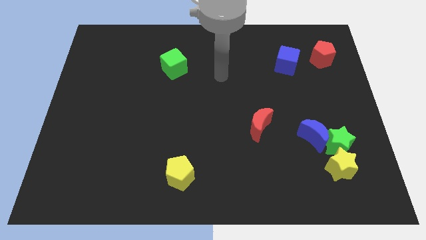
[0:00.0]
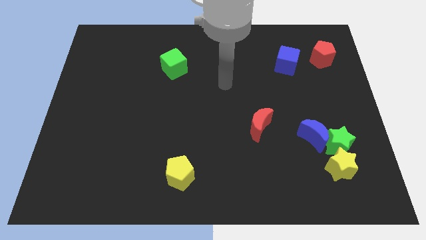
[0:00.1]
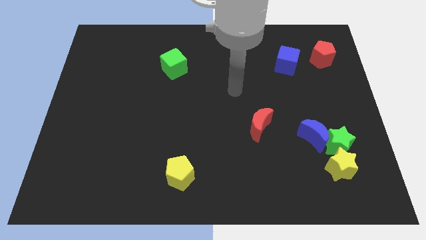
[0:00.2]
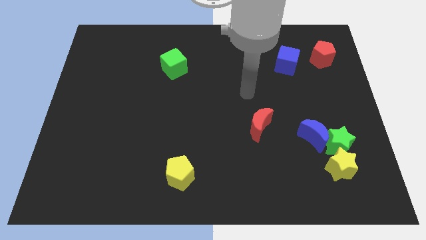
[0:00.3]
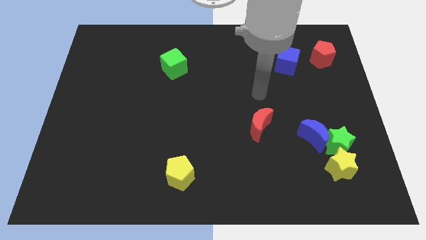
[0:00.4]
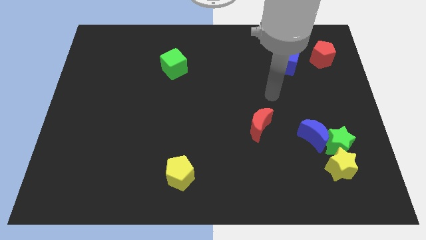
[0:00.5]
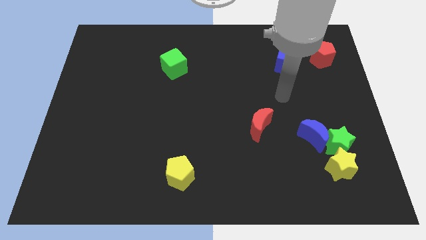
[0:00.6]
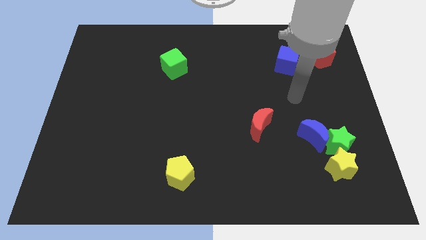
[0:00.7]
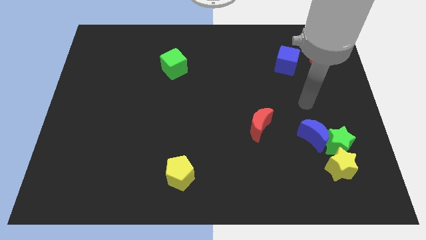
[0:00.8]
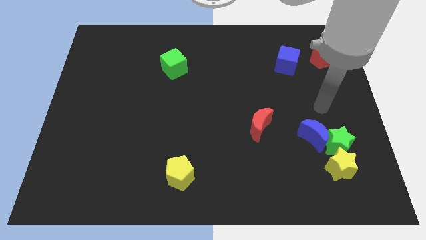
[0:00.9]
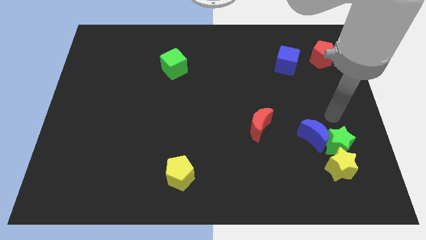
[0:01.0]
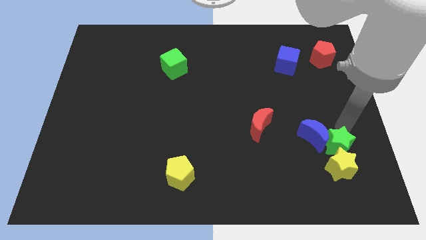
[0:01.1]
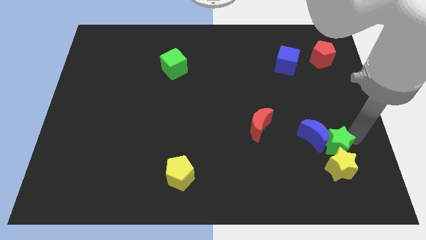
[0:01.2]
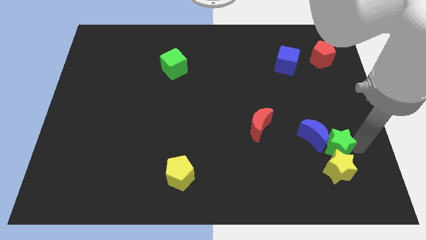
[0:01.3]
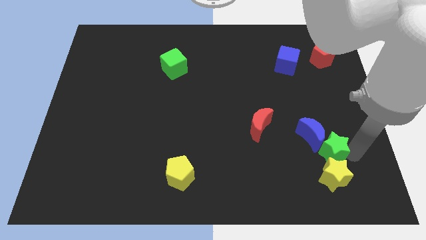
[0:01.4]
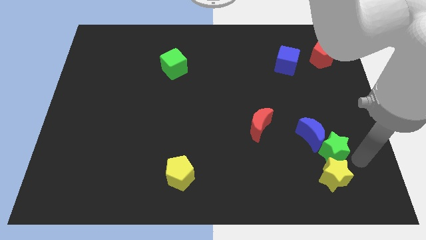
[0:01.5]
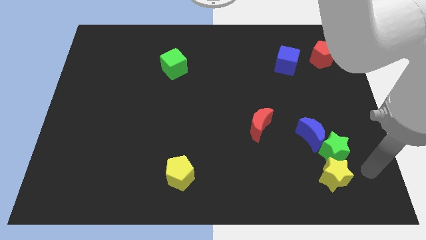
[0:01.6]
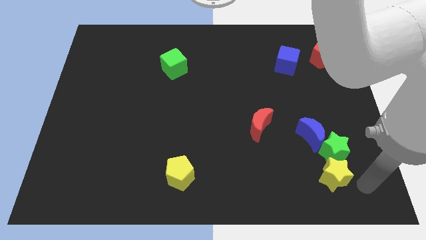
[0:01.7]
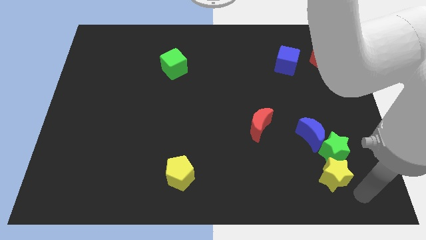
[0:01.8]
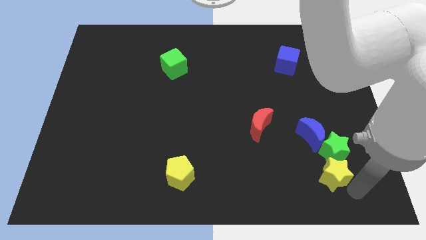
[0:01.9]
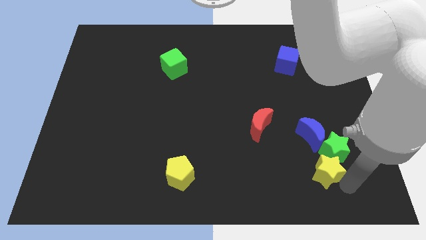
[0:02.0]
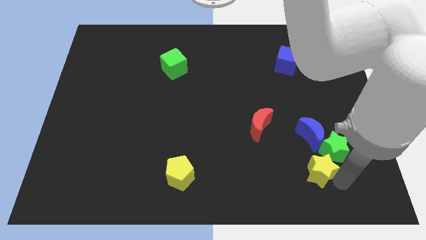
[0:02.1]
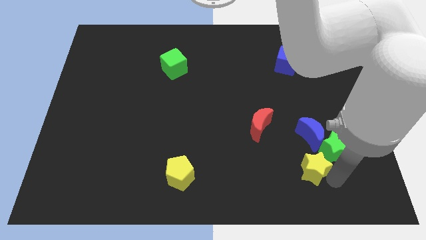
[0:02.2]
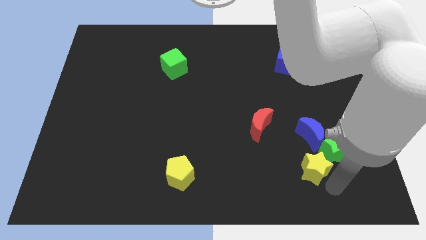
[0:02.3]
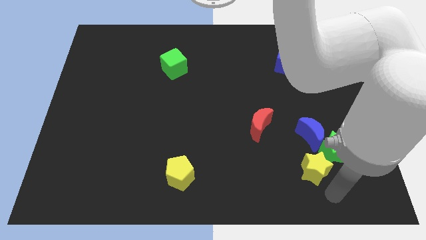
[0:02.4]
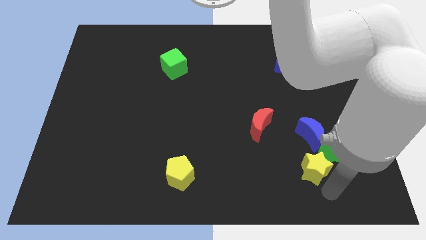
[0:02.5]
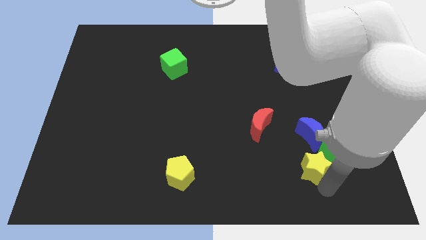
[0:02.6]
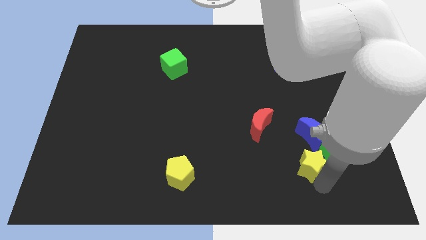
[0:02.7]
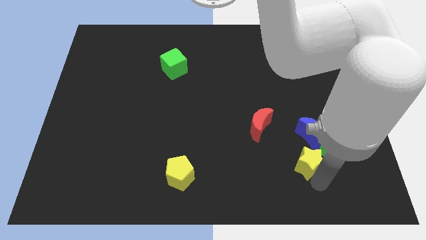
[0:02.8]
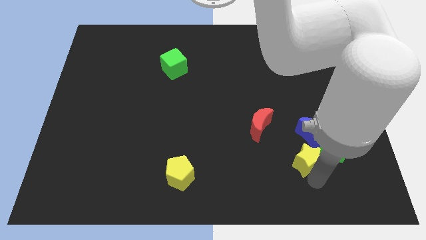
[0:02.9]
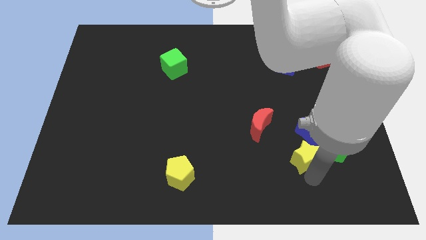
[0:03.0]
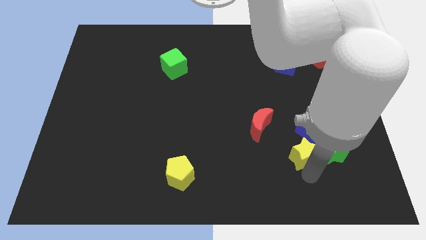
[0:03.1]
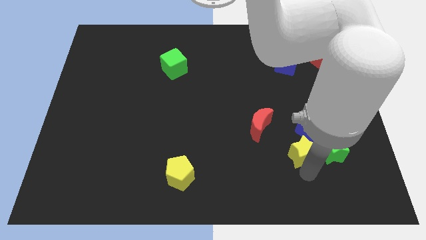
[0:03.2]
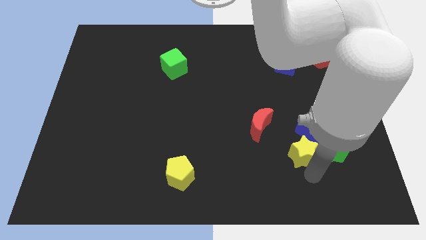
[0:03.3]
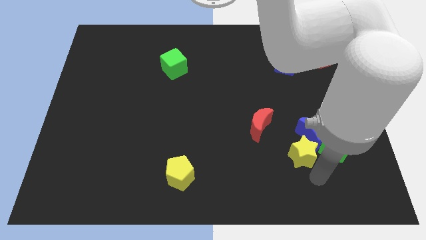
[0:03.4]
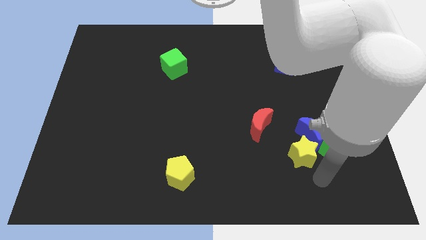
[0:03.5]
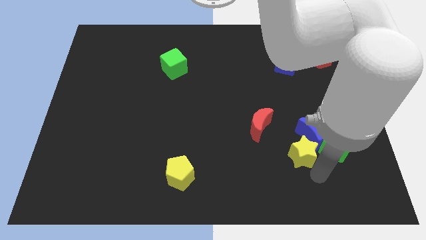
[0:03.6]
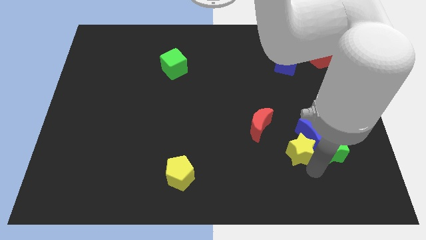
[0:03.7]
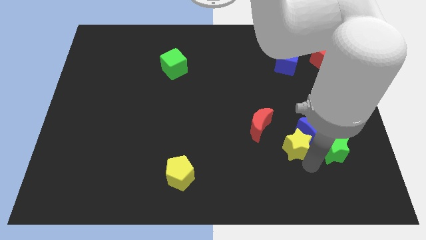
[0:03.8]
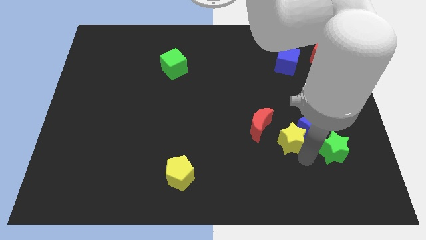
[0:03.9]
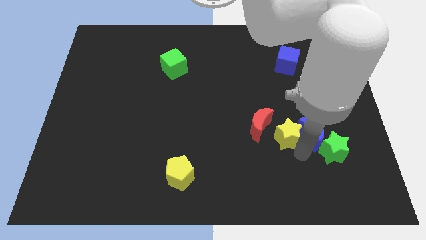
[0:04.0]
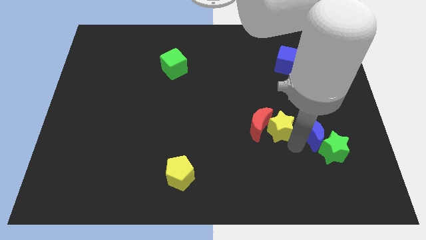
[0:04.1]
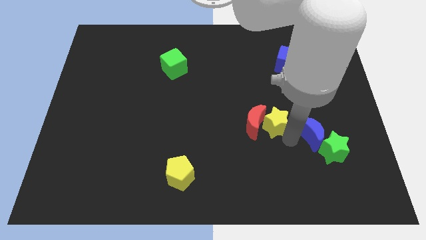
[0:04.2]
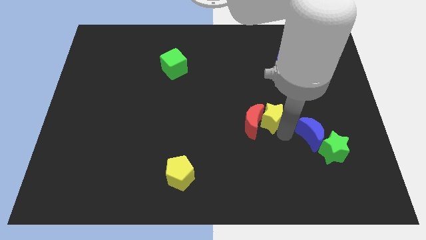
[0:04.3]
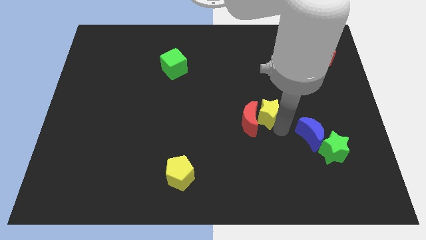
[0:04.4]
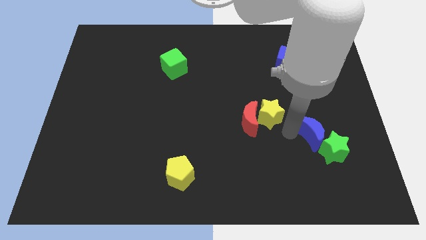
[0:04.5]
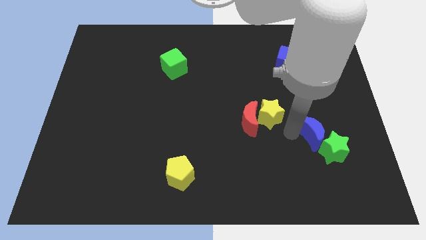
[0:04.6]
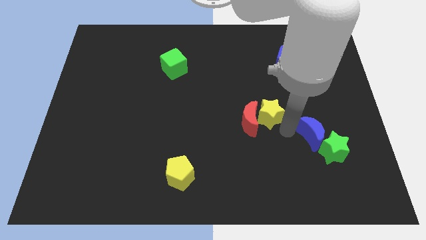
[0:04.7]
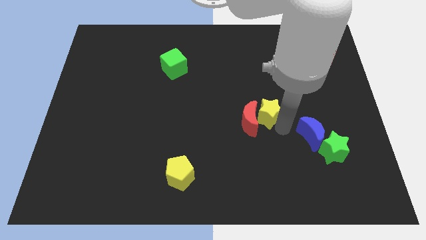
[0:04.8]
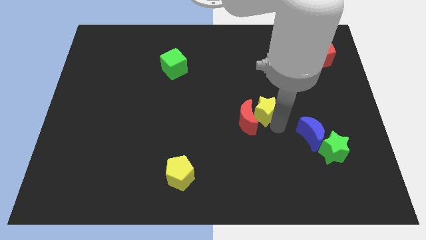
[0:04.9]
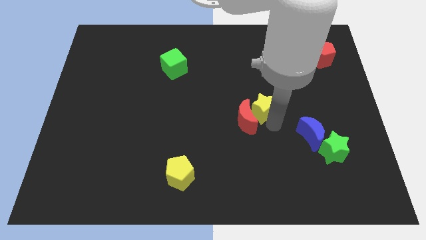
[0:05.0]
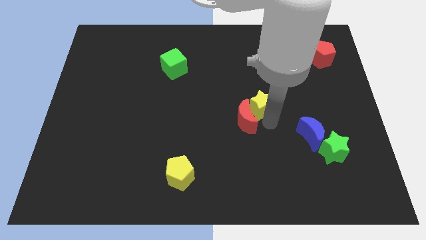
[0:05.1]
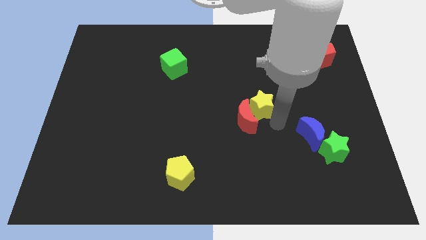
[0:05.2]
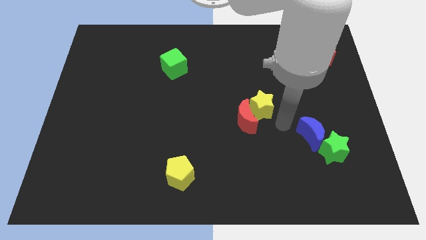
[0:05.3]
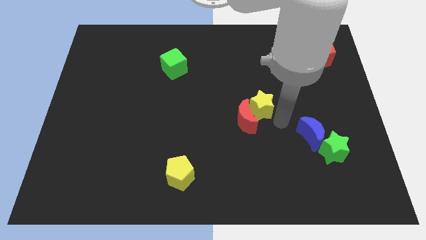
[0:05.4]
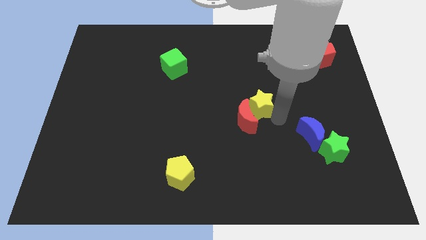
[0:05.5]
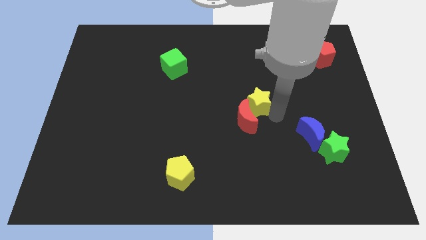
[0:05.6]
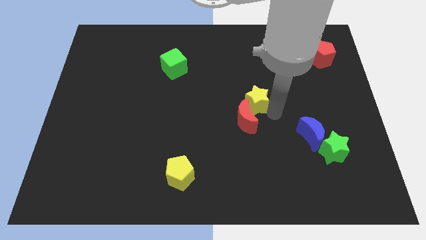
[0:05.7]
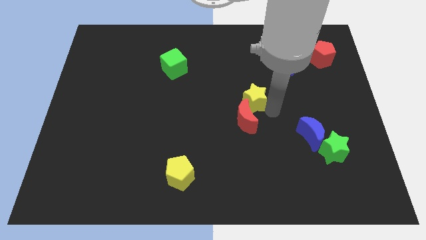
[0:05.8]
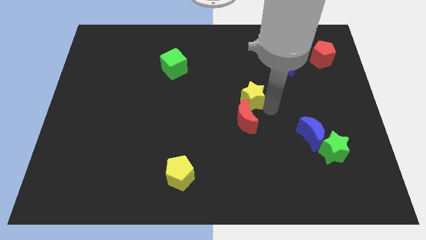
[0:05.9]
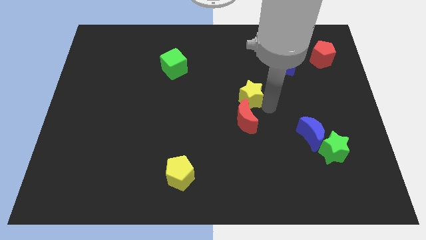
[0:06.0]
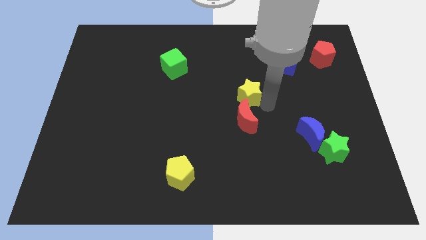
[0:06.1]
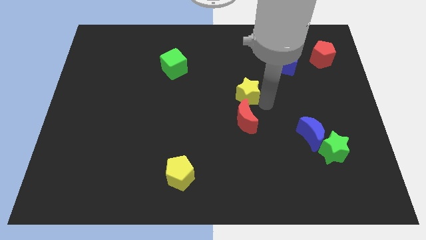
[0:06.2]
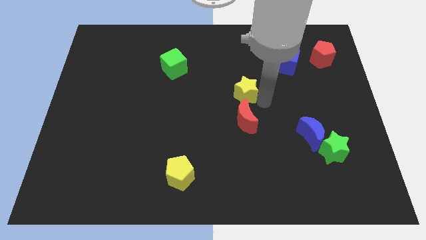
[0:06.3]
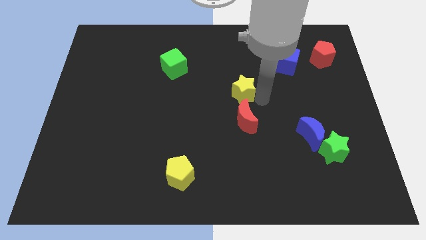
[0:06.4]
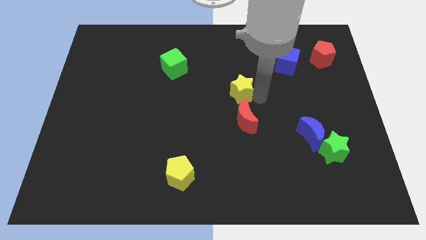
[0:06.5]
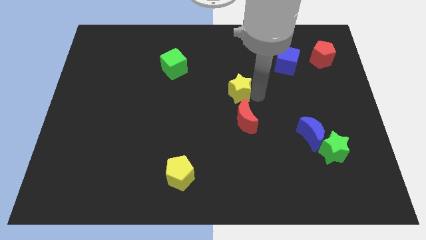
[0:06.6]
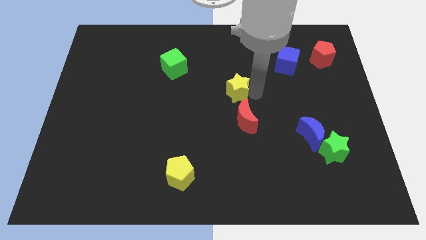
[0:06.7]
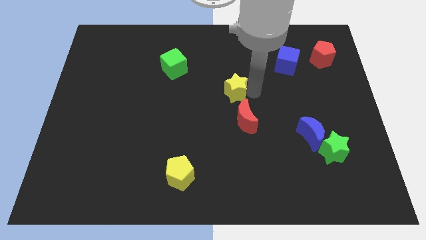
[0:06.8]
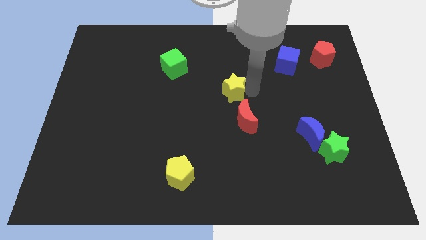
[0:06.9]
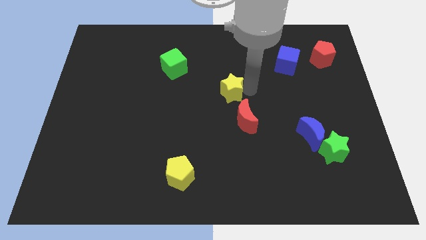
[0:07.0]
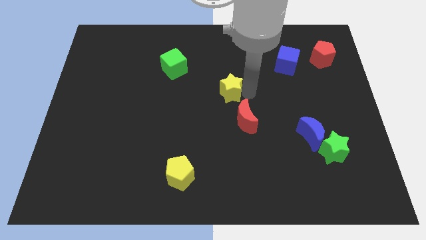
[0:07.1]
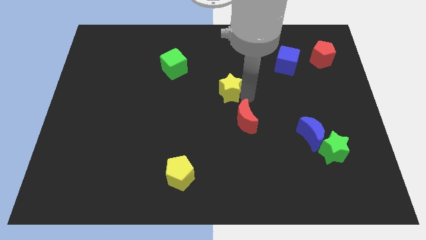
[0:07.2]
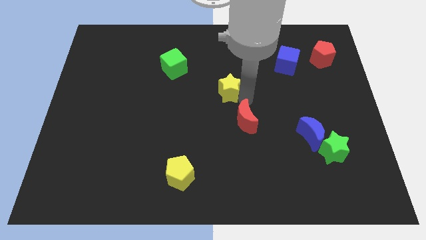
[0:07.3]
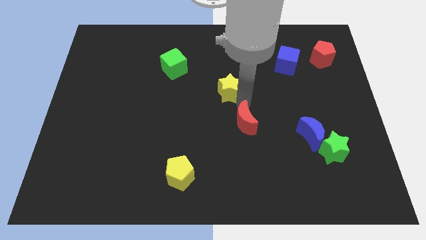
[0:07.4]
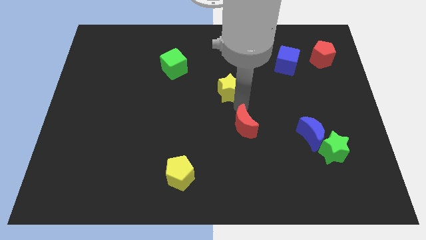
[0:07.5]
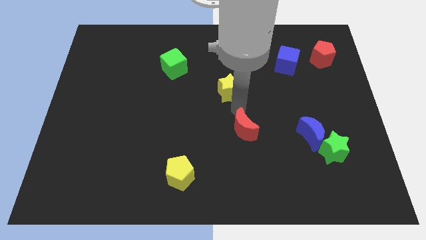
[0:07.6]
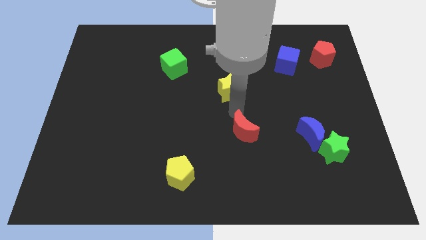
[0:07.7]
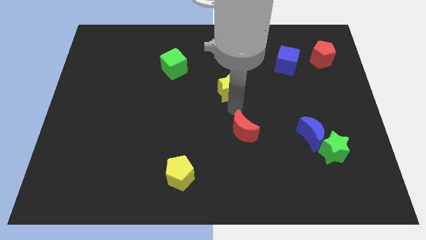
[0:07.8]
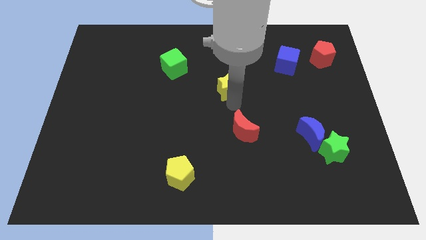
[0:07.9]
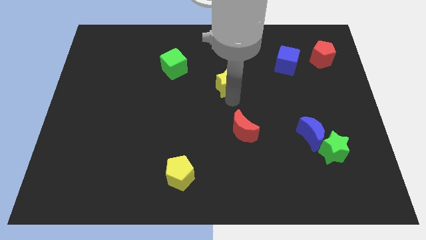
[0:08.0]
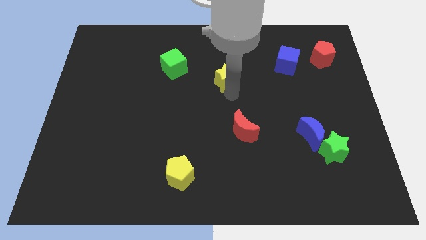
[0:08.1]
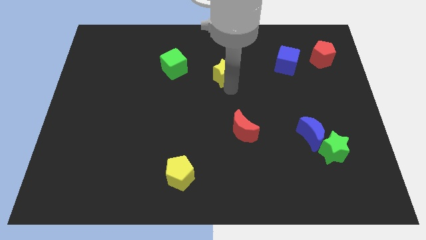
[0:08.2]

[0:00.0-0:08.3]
push the yellow star to the right of the green cube
